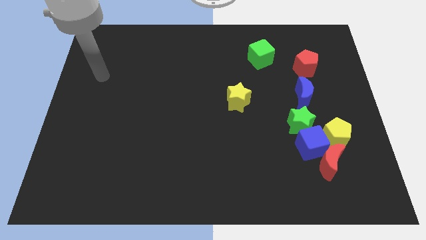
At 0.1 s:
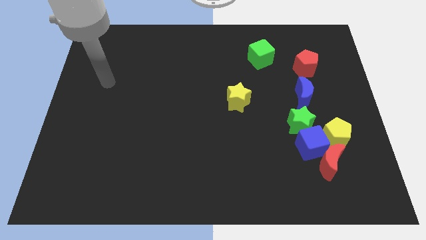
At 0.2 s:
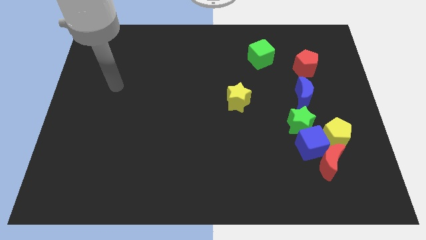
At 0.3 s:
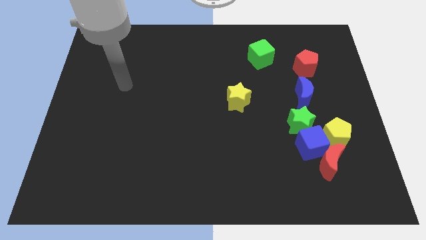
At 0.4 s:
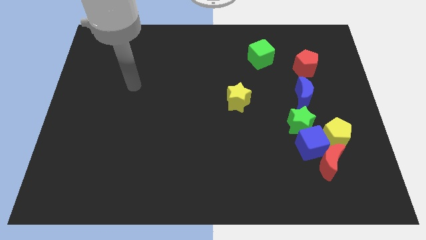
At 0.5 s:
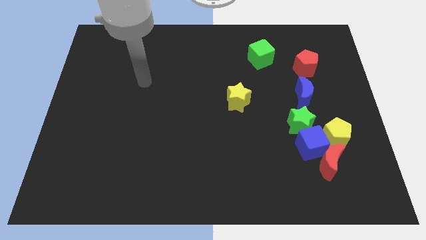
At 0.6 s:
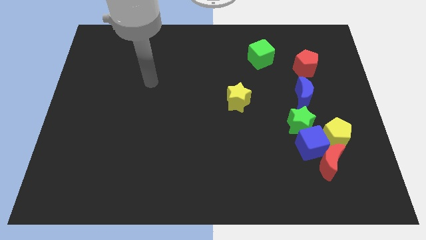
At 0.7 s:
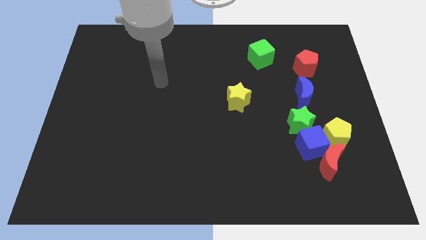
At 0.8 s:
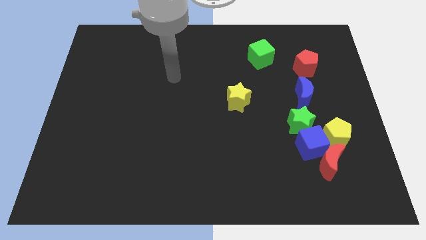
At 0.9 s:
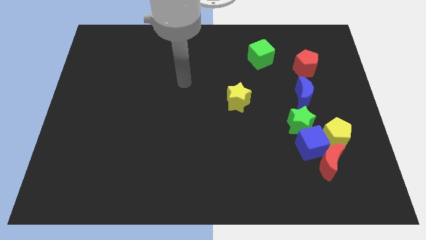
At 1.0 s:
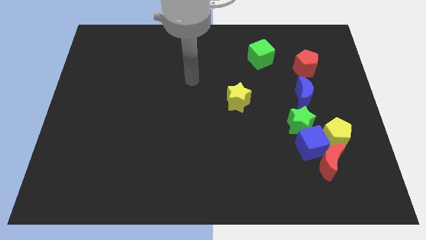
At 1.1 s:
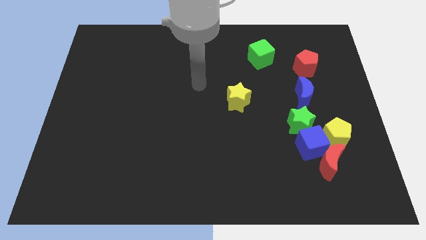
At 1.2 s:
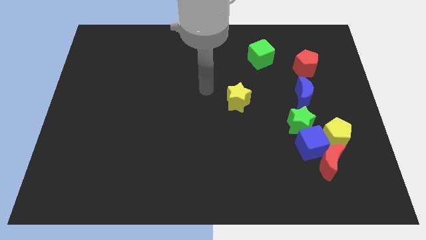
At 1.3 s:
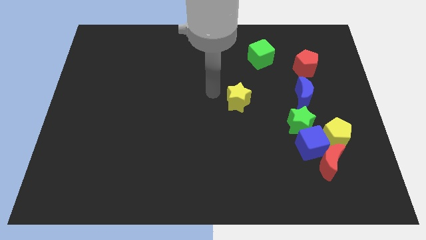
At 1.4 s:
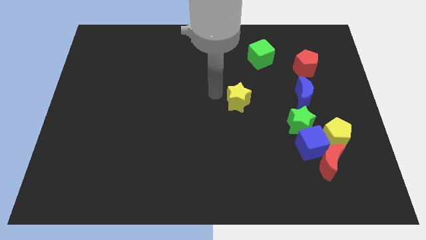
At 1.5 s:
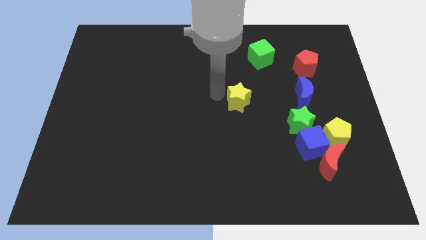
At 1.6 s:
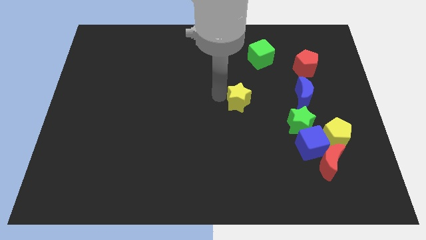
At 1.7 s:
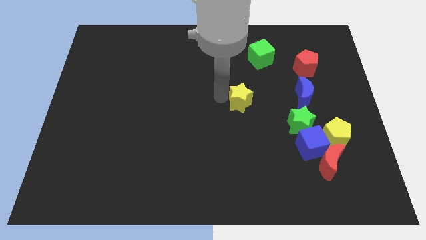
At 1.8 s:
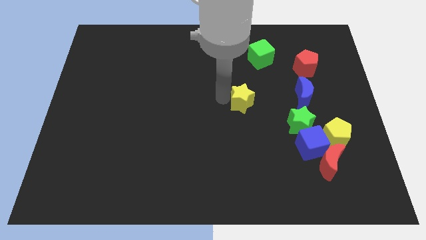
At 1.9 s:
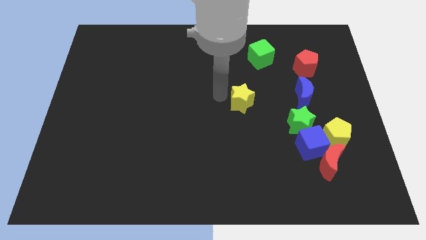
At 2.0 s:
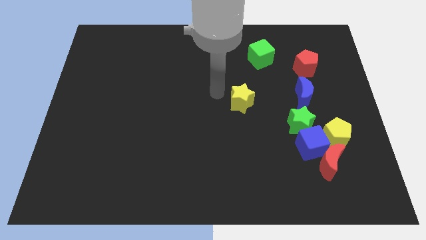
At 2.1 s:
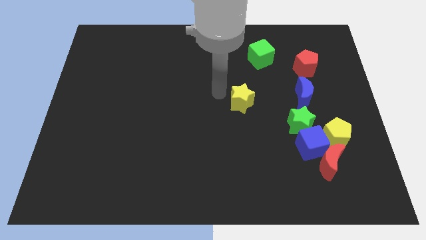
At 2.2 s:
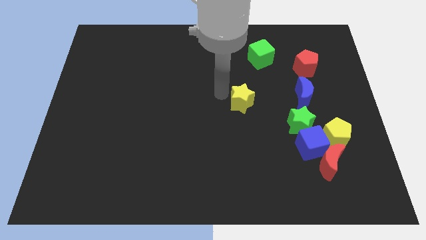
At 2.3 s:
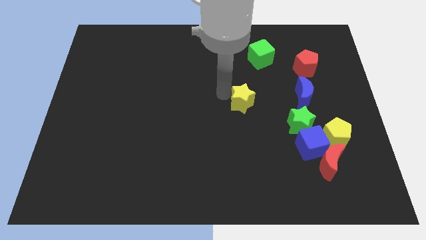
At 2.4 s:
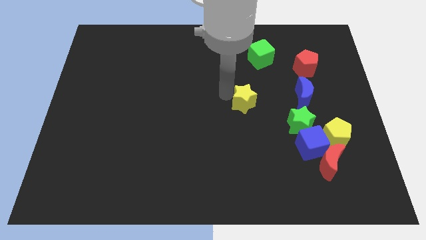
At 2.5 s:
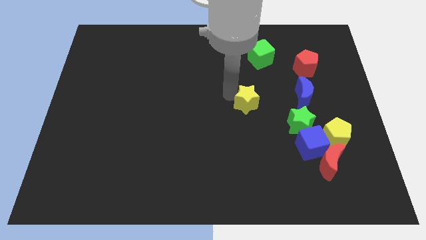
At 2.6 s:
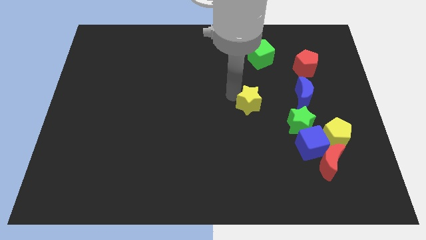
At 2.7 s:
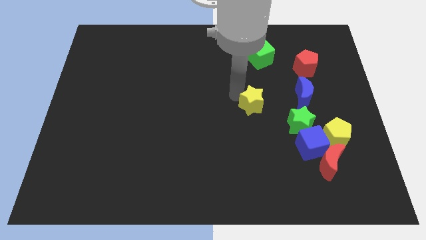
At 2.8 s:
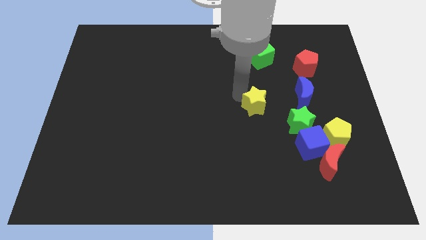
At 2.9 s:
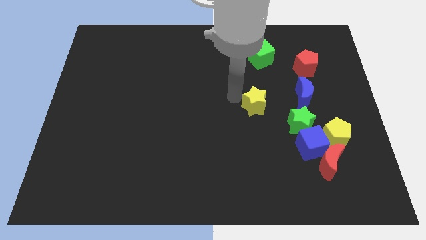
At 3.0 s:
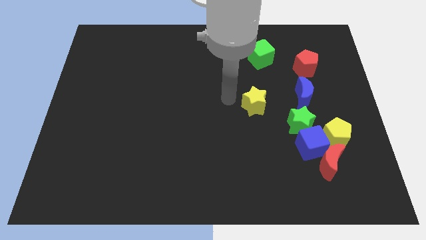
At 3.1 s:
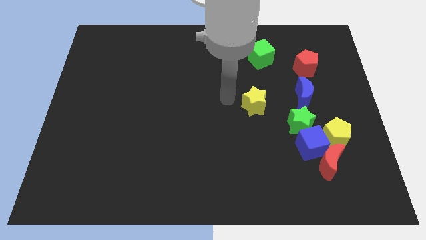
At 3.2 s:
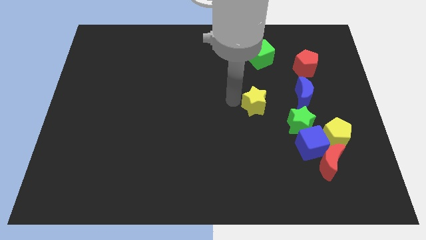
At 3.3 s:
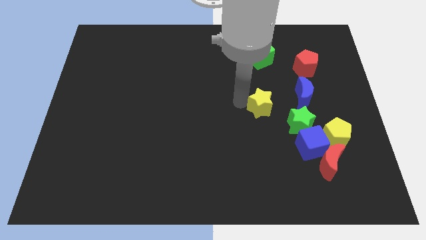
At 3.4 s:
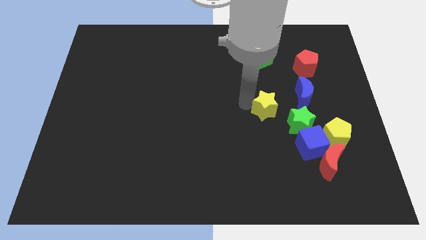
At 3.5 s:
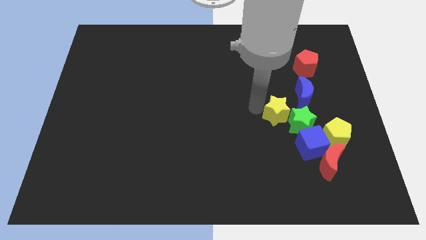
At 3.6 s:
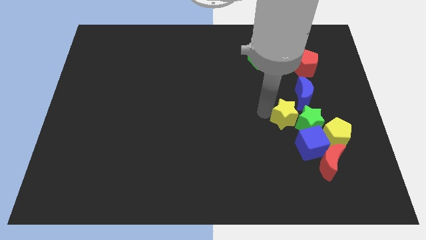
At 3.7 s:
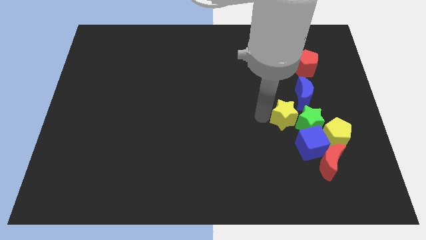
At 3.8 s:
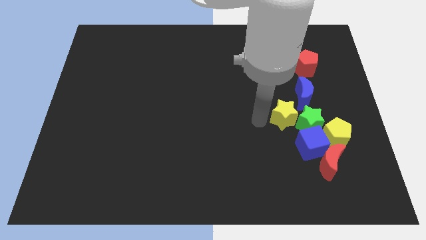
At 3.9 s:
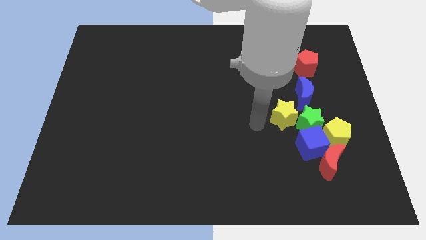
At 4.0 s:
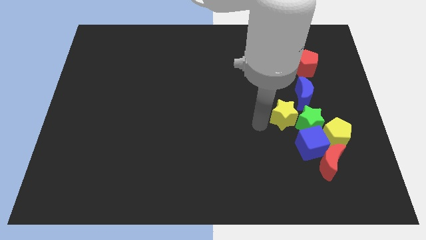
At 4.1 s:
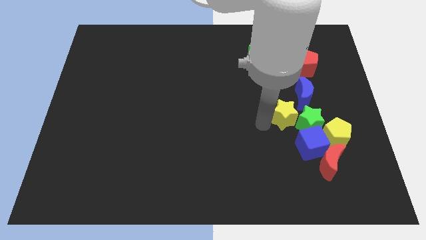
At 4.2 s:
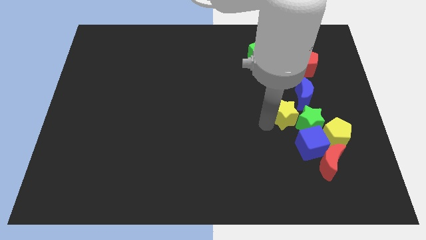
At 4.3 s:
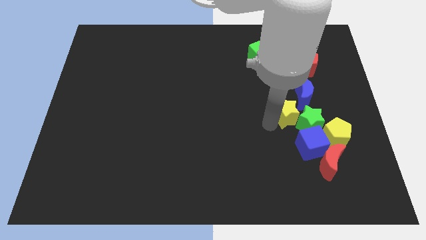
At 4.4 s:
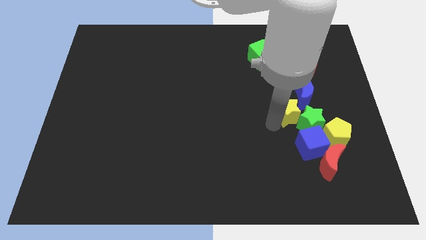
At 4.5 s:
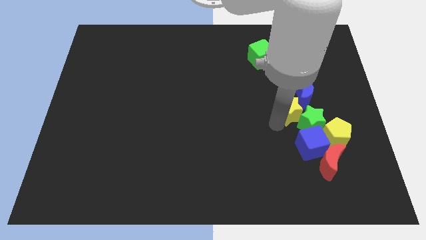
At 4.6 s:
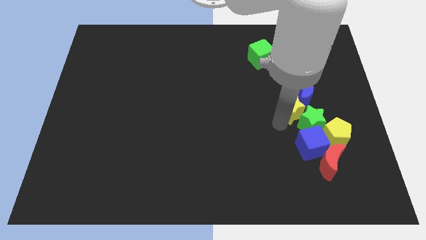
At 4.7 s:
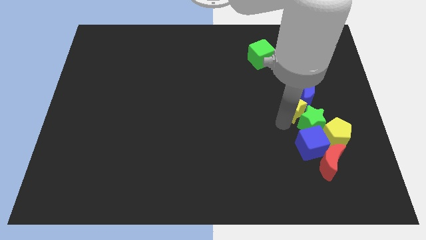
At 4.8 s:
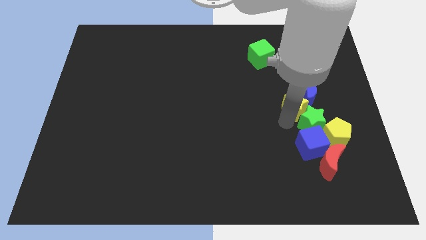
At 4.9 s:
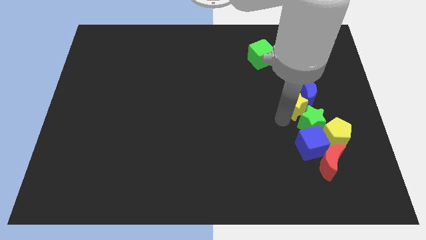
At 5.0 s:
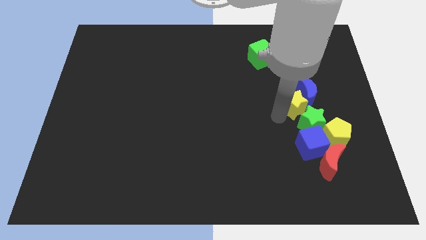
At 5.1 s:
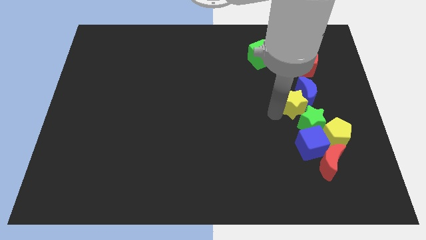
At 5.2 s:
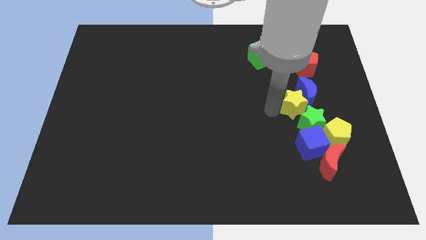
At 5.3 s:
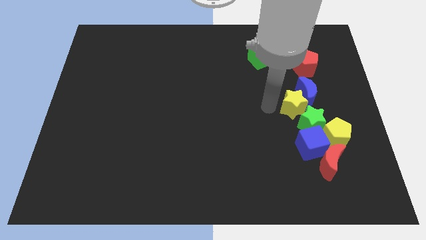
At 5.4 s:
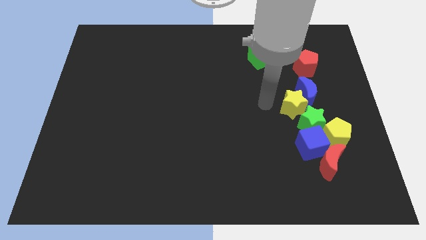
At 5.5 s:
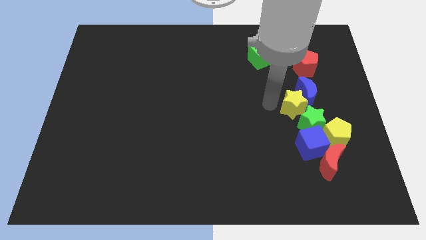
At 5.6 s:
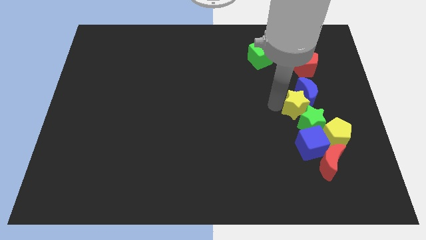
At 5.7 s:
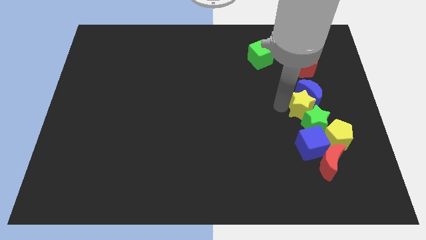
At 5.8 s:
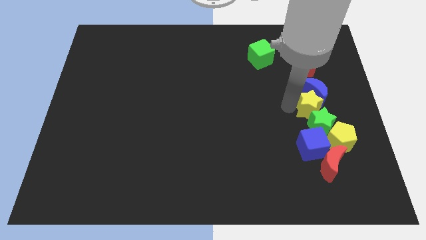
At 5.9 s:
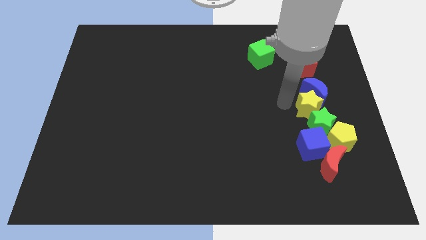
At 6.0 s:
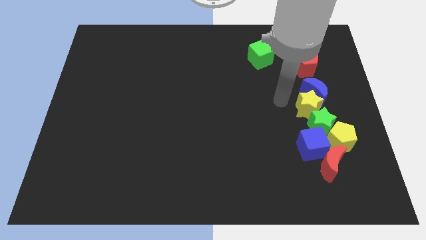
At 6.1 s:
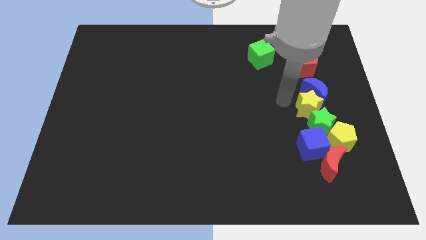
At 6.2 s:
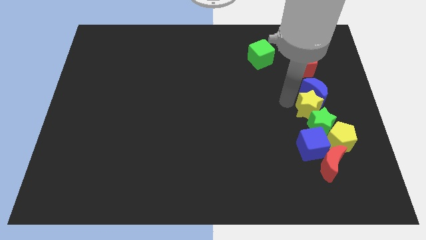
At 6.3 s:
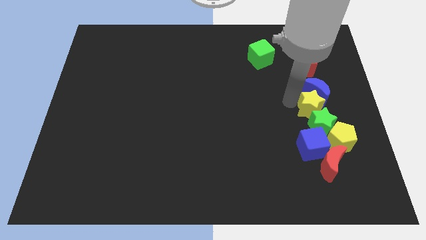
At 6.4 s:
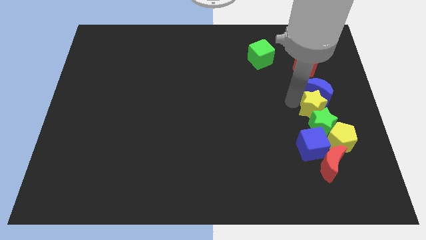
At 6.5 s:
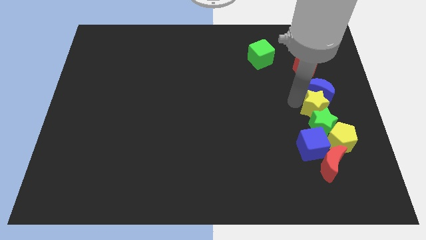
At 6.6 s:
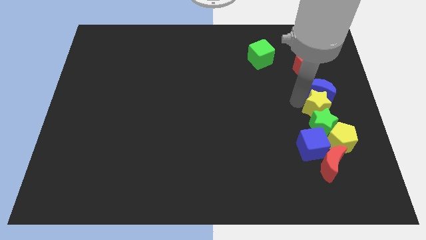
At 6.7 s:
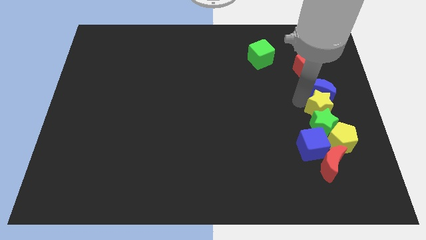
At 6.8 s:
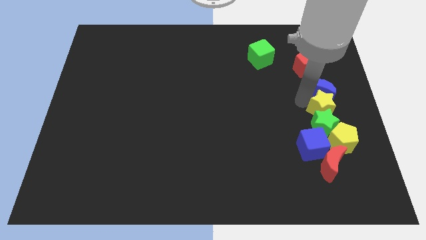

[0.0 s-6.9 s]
move the yellow star to the center right

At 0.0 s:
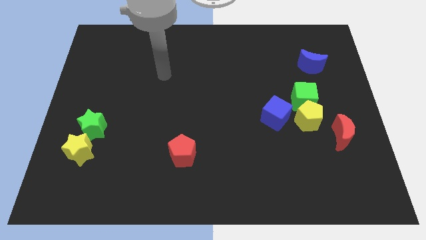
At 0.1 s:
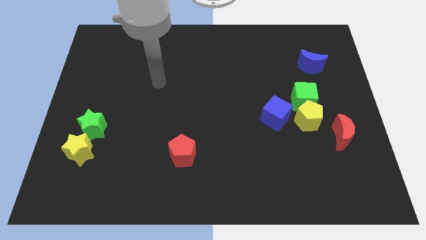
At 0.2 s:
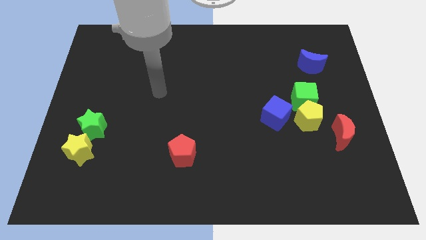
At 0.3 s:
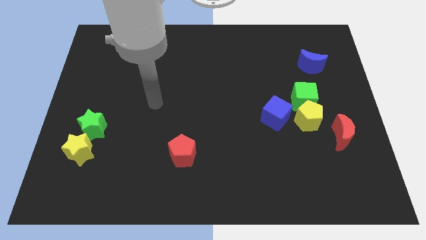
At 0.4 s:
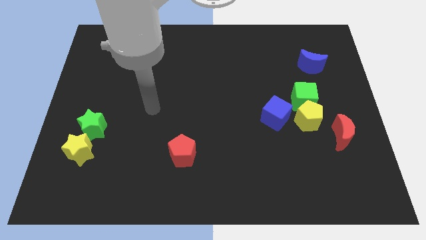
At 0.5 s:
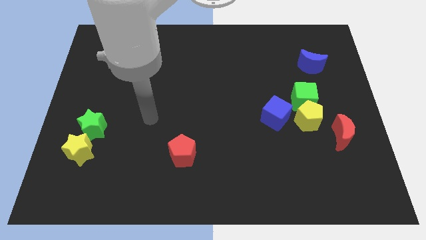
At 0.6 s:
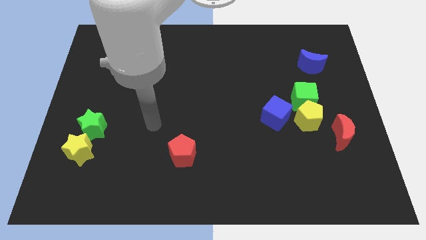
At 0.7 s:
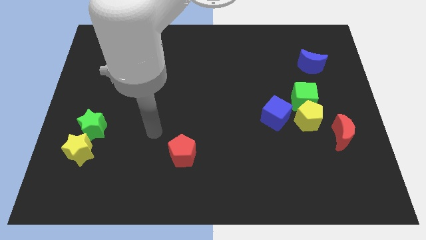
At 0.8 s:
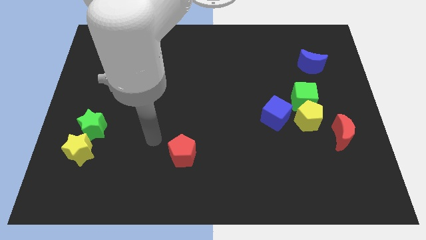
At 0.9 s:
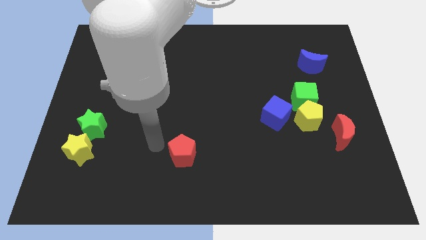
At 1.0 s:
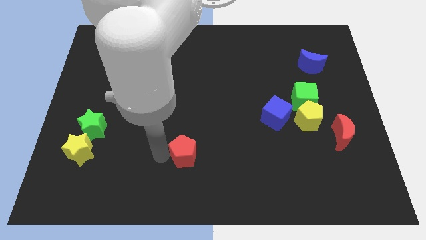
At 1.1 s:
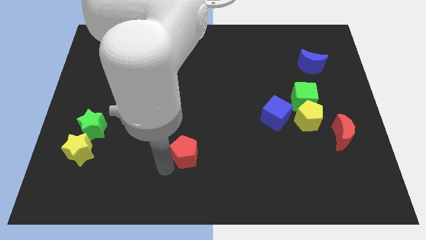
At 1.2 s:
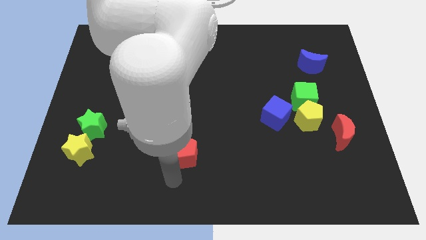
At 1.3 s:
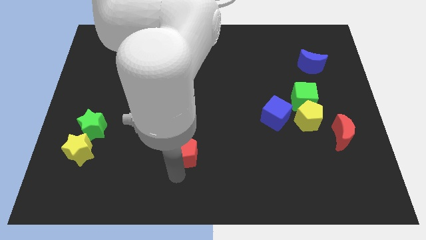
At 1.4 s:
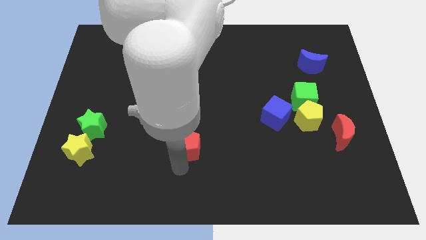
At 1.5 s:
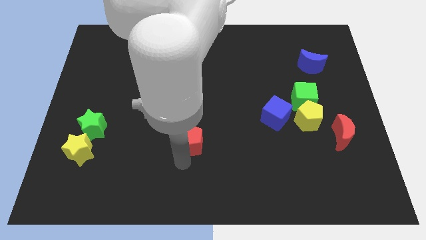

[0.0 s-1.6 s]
put the red pentagon to the middle of the board
